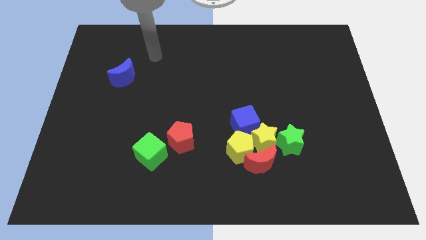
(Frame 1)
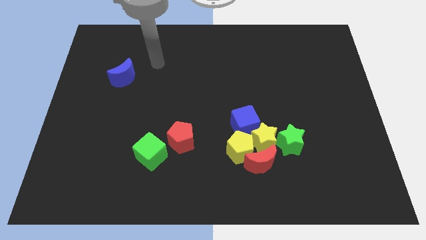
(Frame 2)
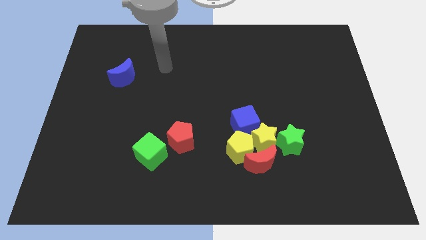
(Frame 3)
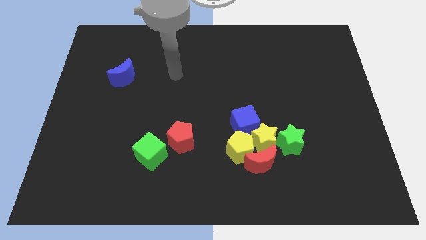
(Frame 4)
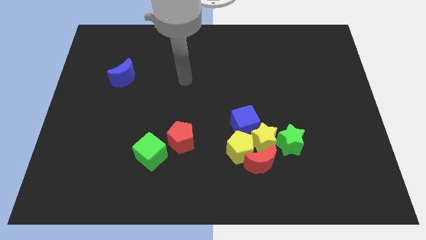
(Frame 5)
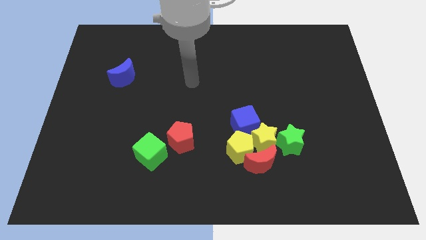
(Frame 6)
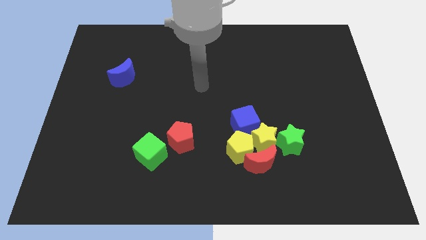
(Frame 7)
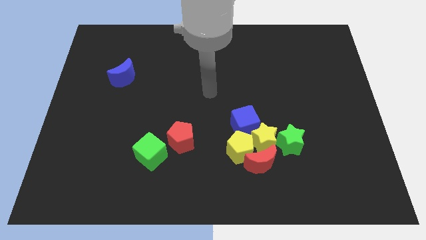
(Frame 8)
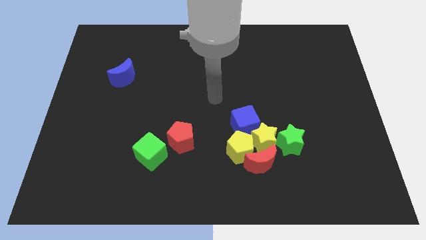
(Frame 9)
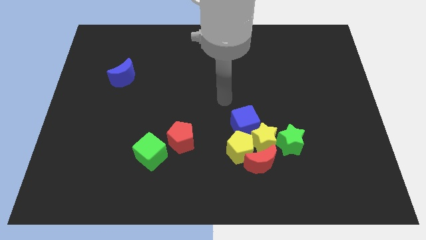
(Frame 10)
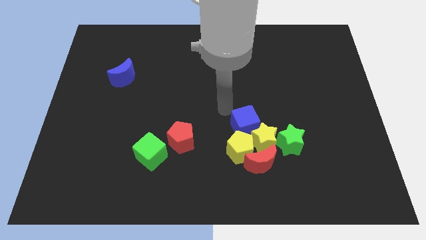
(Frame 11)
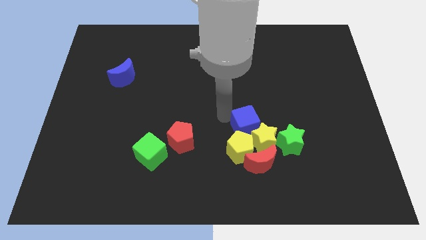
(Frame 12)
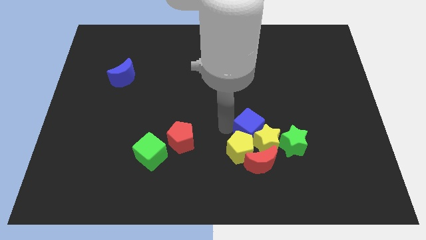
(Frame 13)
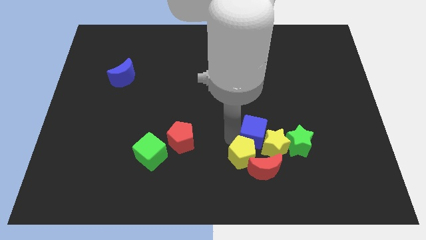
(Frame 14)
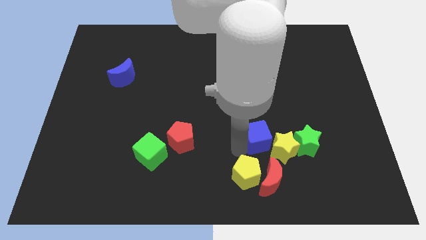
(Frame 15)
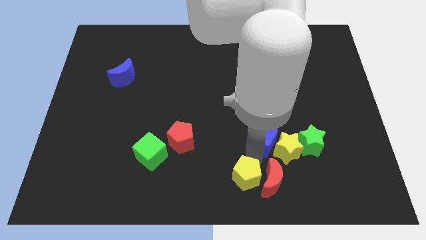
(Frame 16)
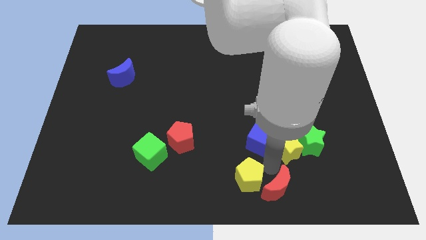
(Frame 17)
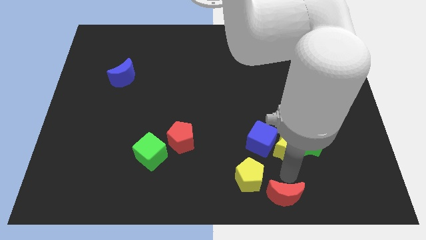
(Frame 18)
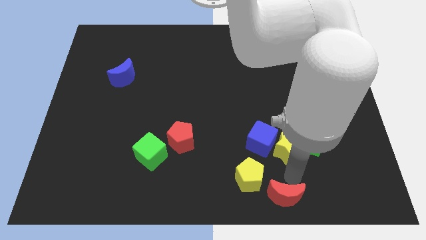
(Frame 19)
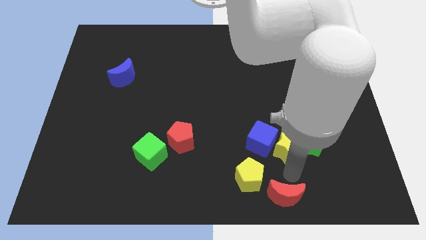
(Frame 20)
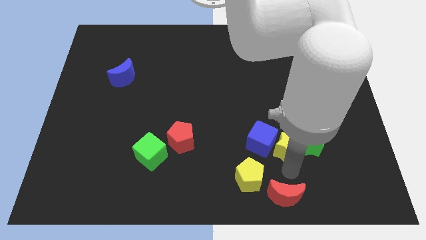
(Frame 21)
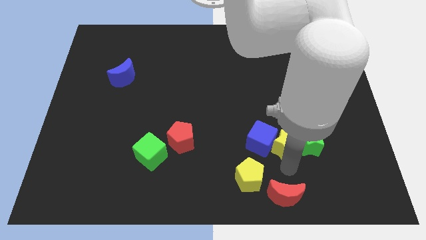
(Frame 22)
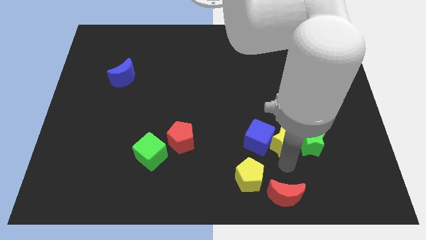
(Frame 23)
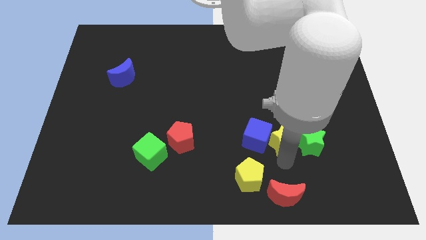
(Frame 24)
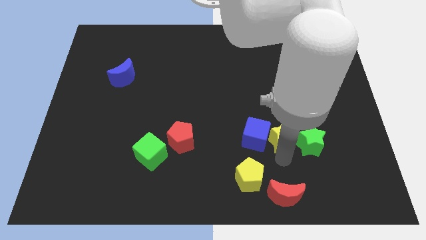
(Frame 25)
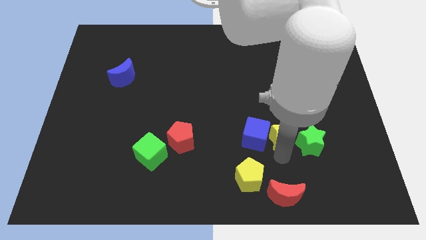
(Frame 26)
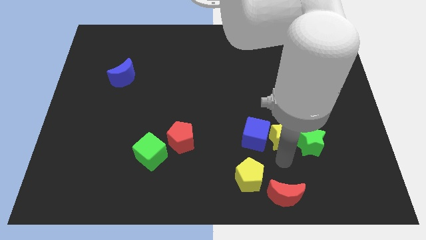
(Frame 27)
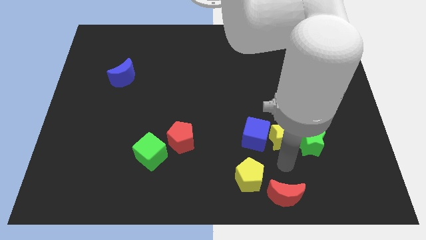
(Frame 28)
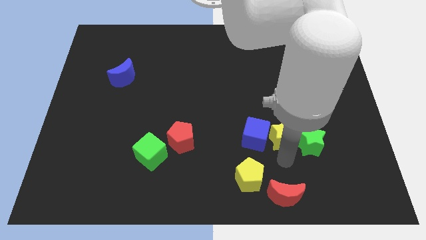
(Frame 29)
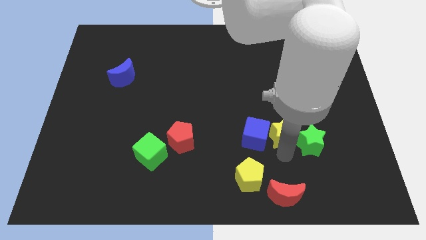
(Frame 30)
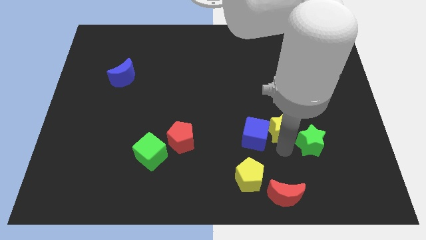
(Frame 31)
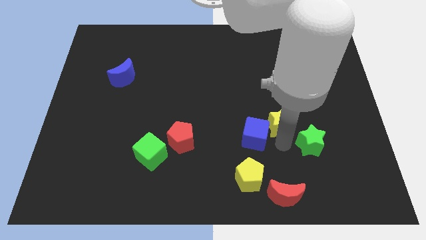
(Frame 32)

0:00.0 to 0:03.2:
move the yellow star away from the group of blocks

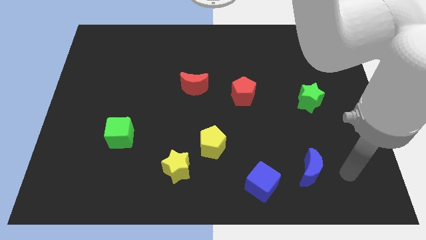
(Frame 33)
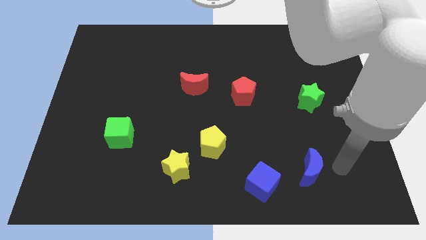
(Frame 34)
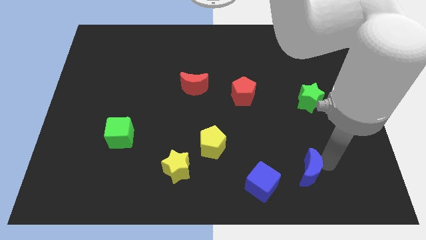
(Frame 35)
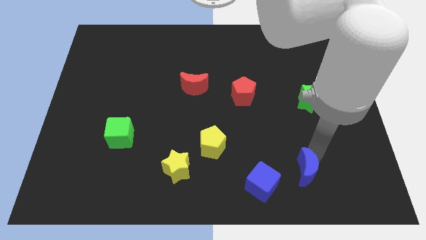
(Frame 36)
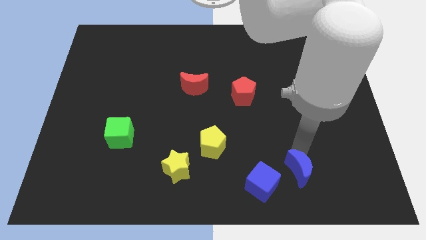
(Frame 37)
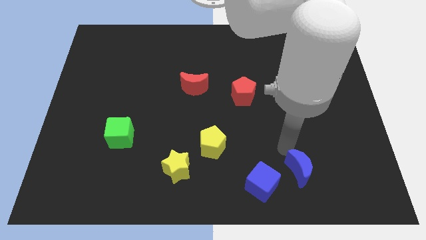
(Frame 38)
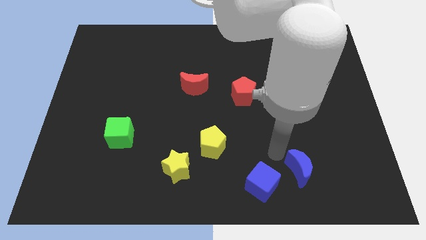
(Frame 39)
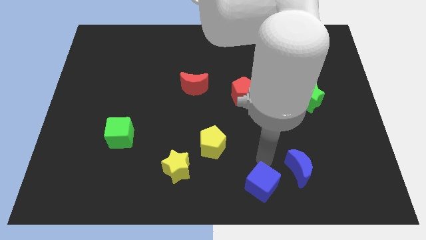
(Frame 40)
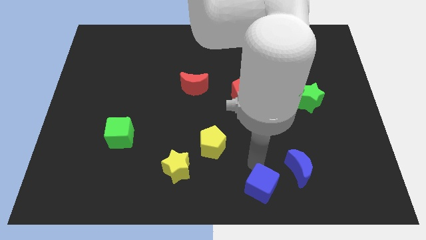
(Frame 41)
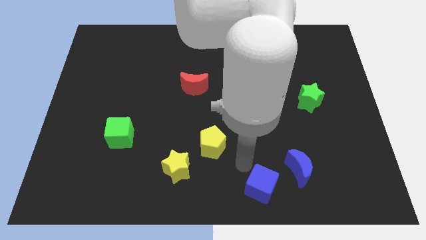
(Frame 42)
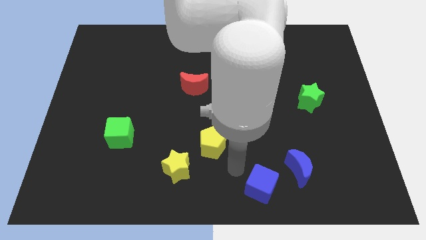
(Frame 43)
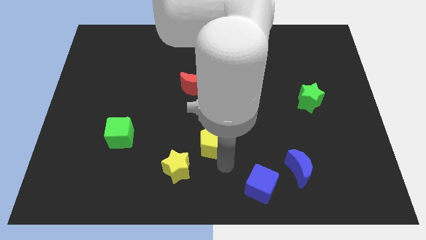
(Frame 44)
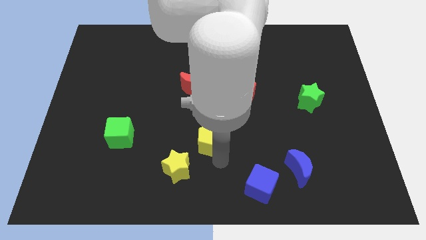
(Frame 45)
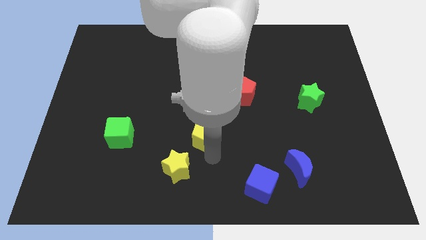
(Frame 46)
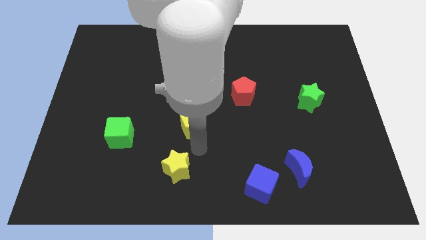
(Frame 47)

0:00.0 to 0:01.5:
pull the yellow star apart from the yellow pentagon

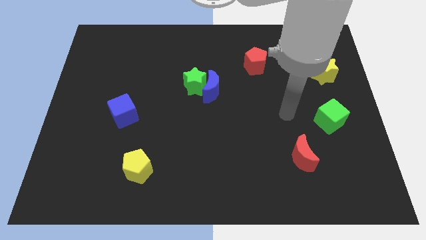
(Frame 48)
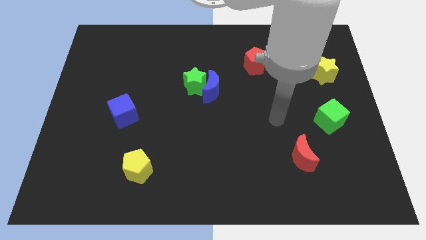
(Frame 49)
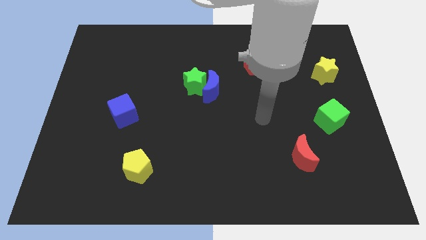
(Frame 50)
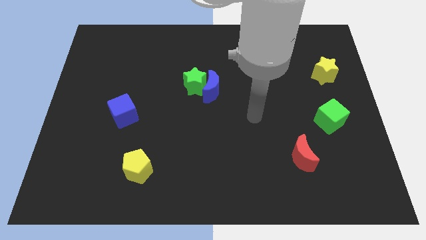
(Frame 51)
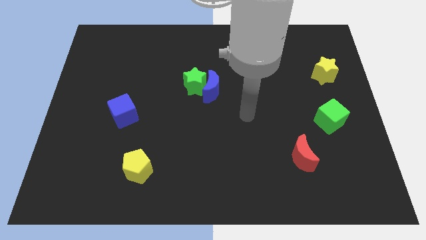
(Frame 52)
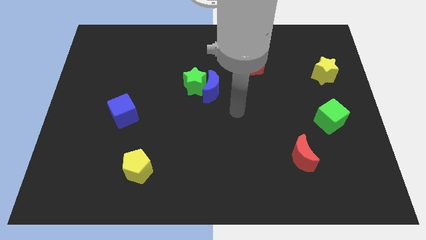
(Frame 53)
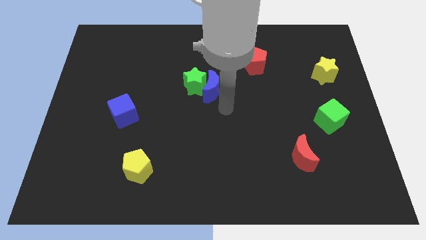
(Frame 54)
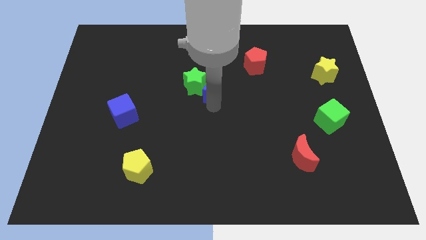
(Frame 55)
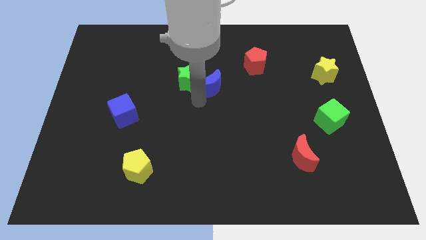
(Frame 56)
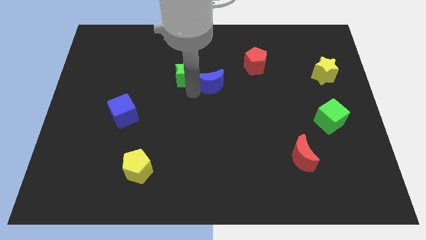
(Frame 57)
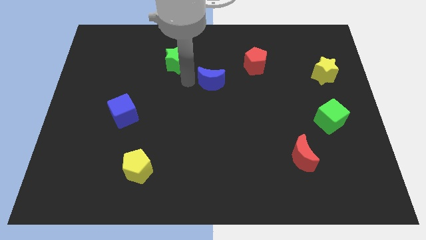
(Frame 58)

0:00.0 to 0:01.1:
pull the blue moon apart from the green star

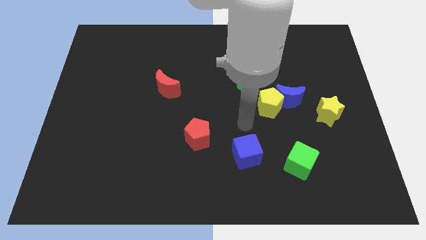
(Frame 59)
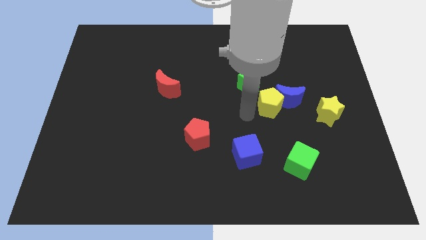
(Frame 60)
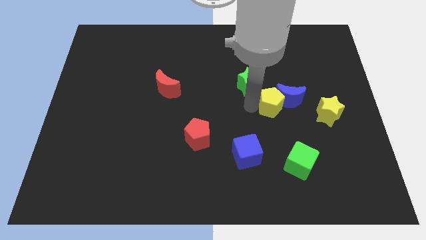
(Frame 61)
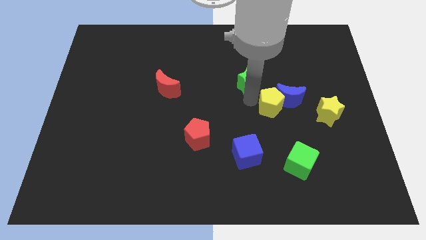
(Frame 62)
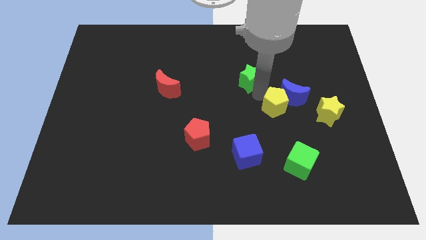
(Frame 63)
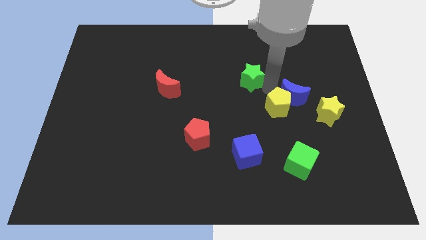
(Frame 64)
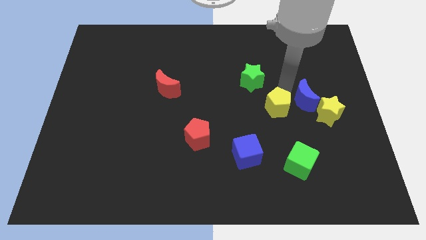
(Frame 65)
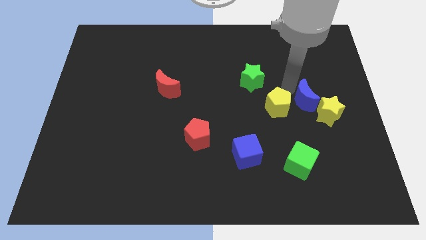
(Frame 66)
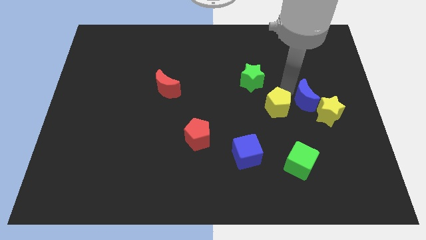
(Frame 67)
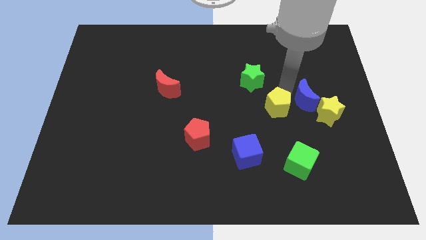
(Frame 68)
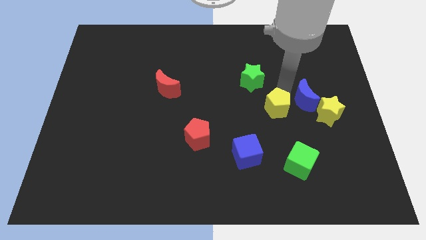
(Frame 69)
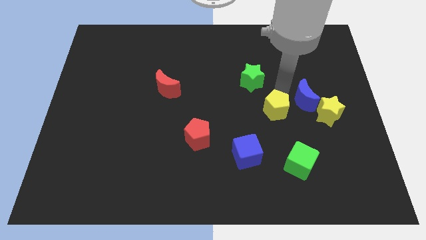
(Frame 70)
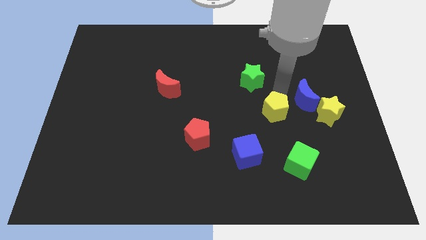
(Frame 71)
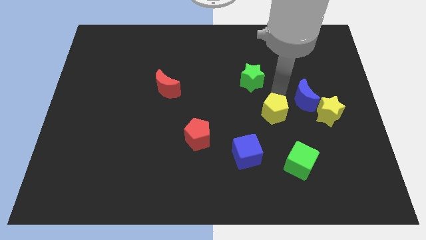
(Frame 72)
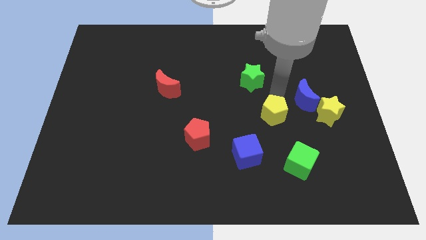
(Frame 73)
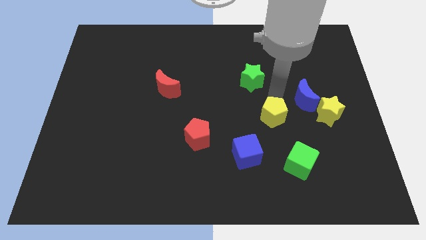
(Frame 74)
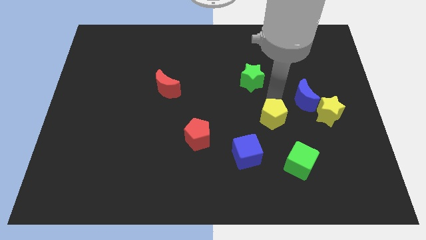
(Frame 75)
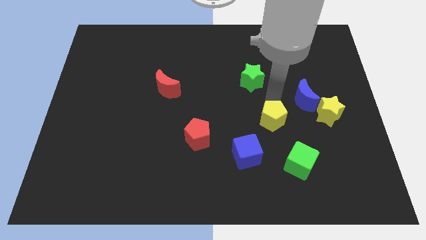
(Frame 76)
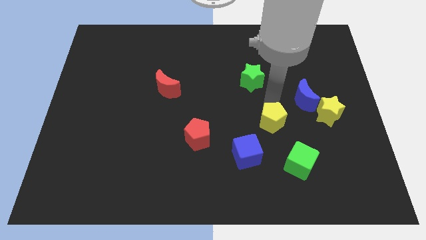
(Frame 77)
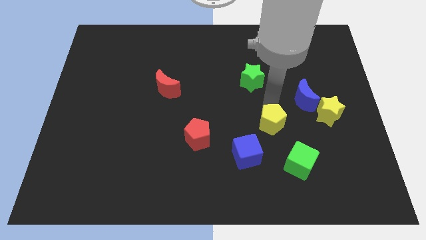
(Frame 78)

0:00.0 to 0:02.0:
move the yellow pentagon away from the blue moon and green star

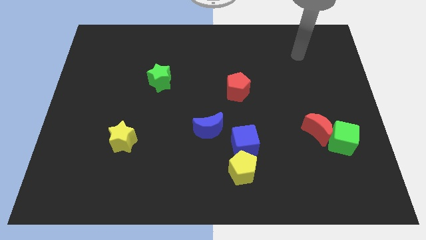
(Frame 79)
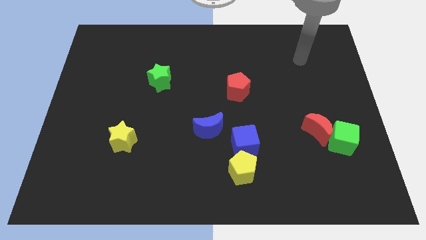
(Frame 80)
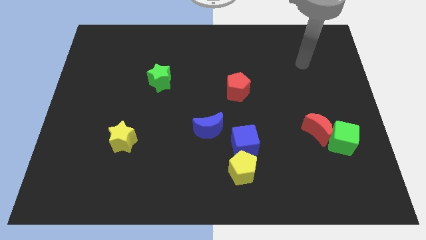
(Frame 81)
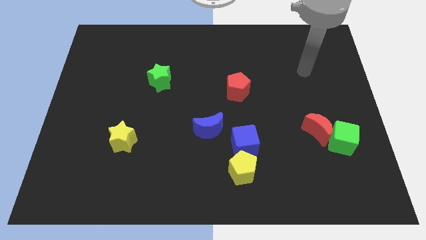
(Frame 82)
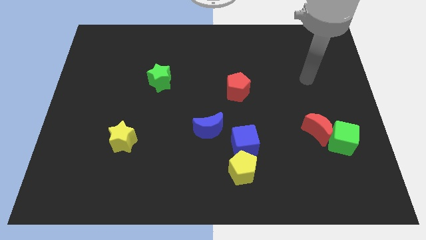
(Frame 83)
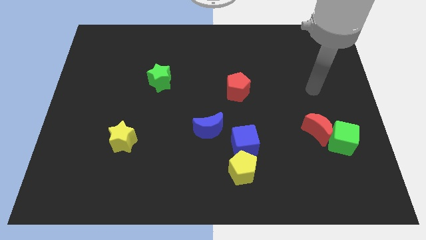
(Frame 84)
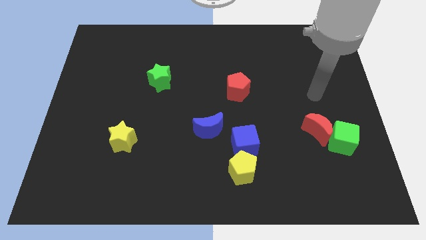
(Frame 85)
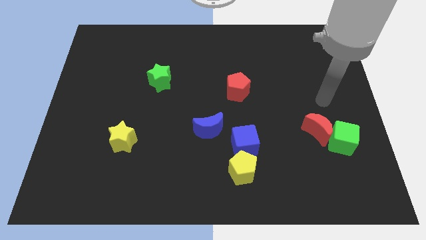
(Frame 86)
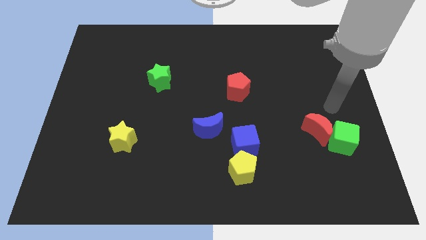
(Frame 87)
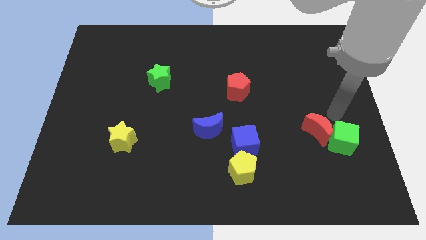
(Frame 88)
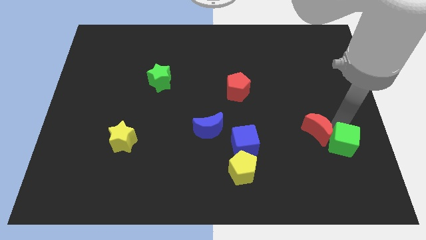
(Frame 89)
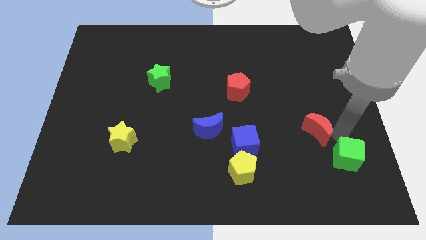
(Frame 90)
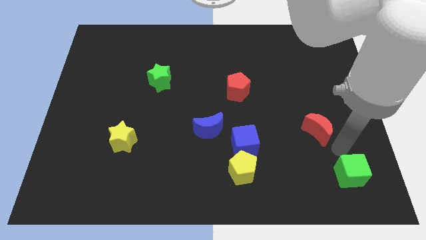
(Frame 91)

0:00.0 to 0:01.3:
pull the red moon apart from the green cube
